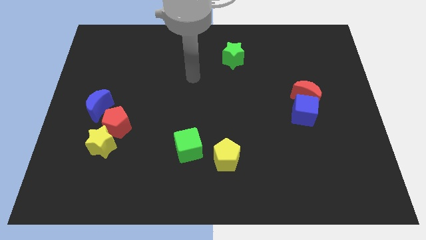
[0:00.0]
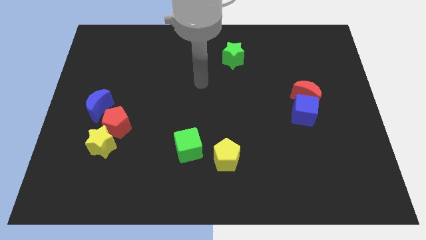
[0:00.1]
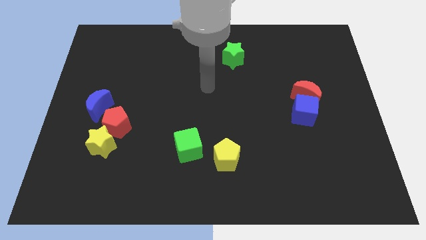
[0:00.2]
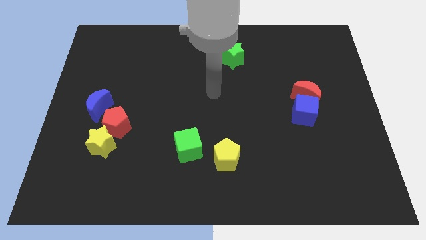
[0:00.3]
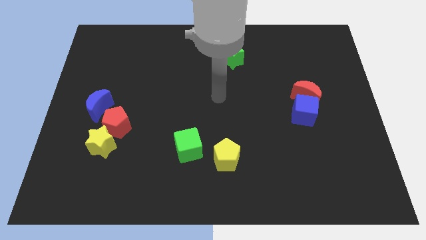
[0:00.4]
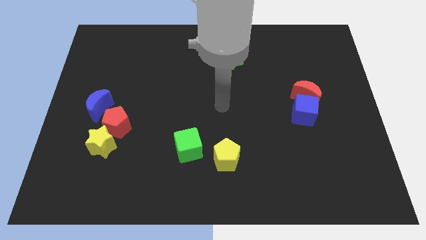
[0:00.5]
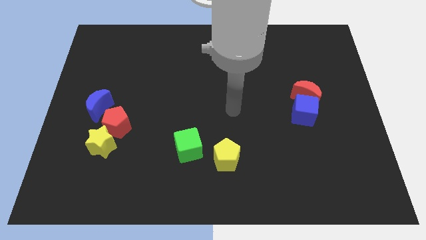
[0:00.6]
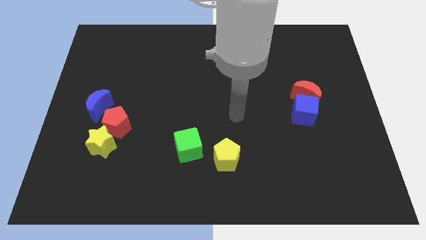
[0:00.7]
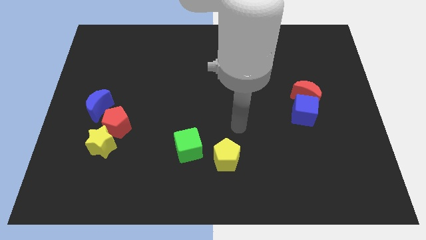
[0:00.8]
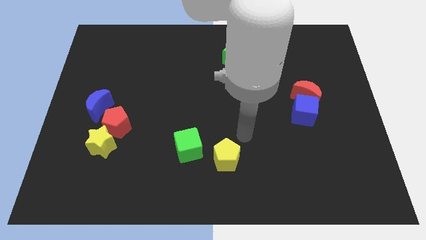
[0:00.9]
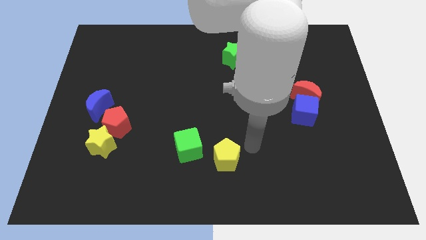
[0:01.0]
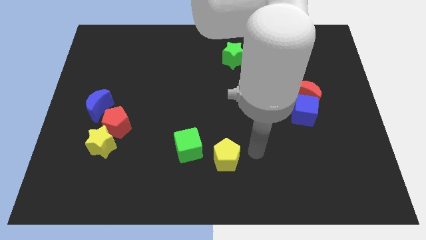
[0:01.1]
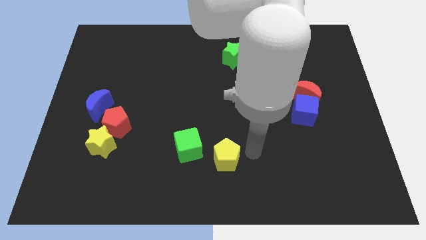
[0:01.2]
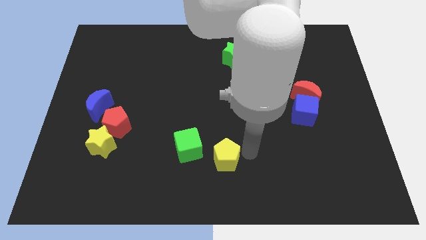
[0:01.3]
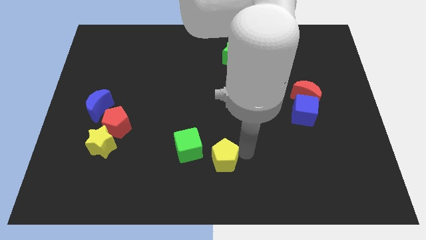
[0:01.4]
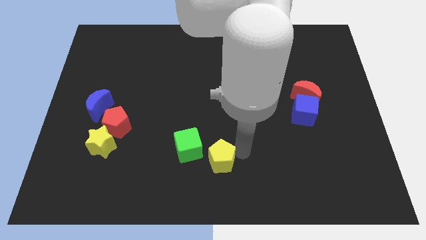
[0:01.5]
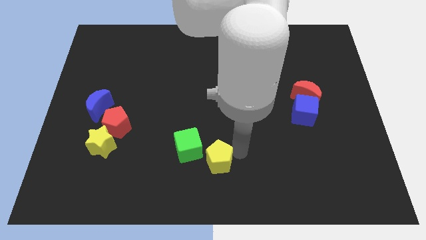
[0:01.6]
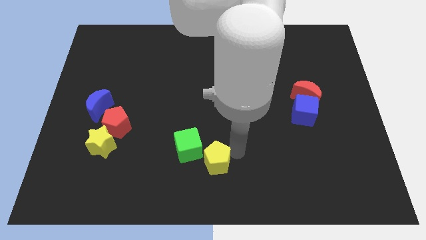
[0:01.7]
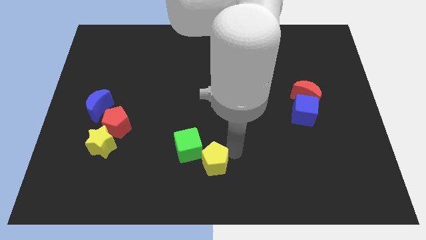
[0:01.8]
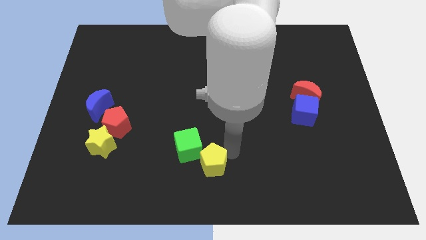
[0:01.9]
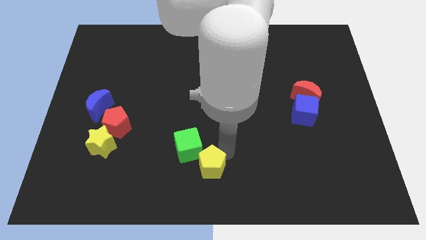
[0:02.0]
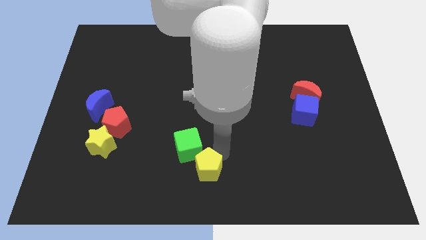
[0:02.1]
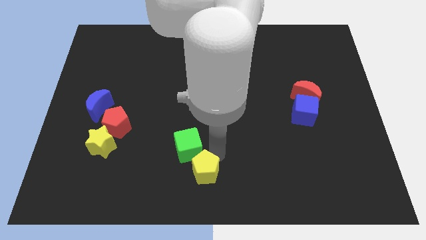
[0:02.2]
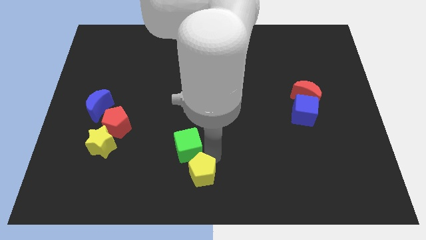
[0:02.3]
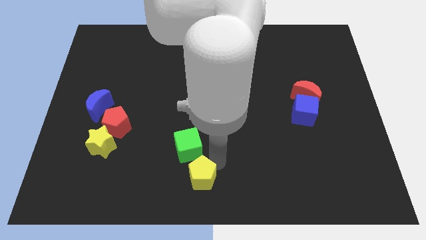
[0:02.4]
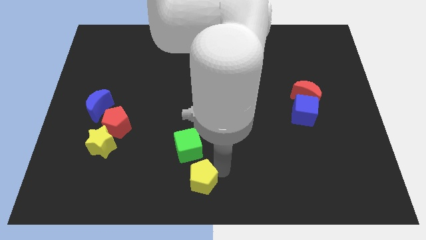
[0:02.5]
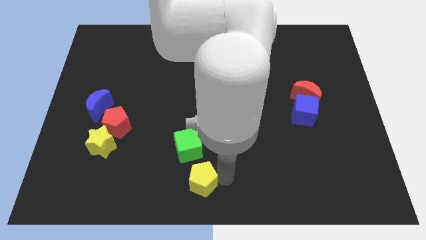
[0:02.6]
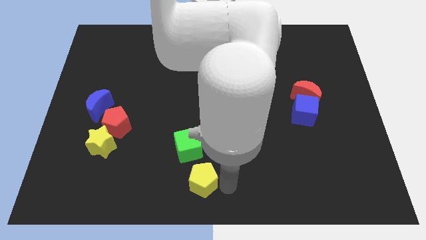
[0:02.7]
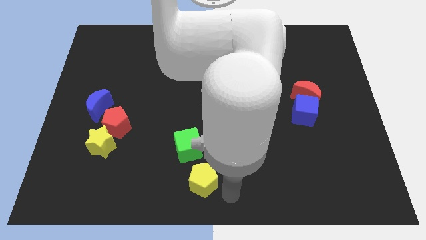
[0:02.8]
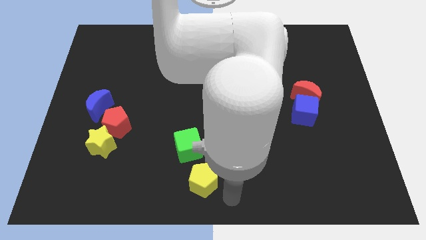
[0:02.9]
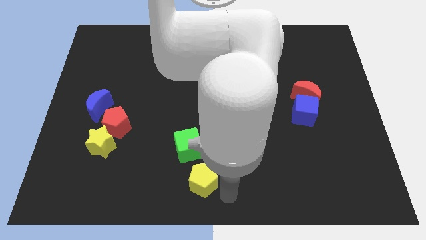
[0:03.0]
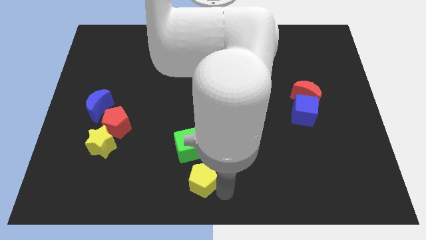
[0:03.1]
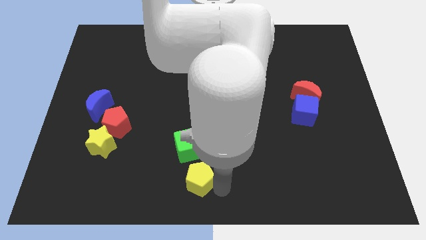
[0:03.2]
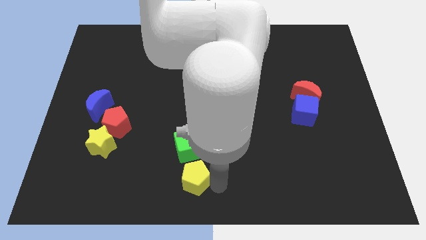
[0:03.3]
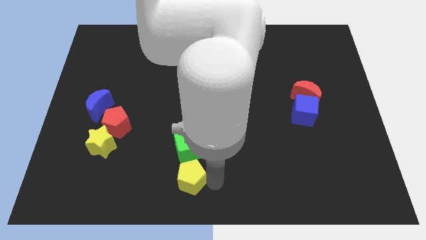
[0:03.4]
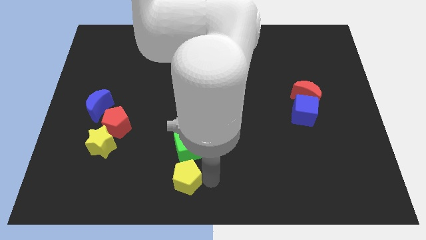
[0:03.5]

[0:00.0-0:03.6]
slightly slide the yellow pentagon left

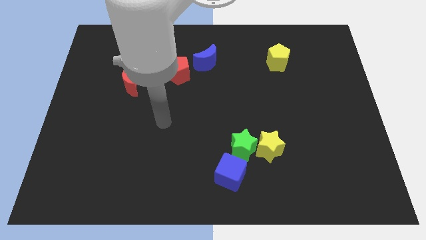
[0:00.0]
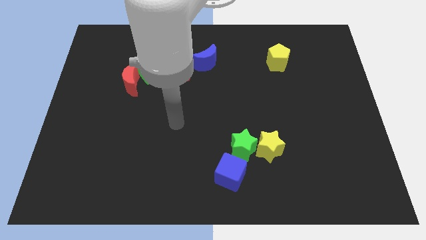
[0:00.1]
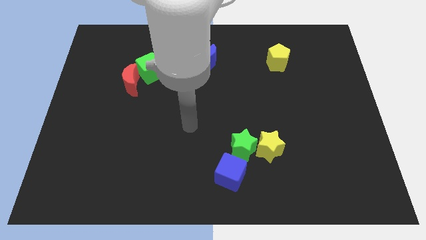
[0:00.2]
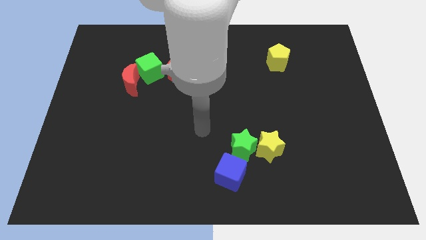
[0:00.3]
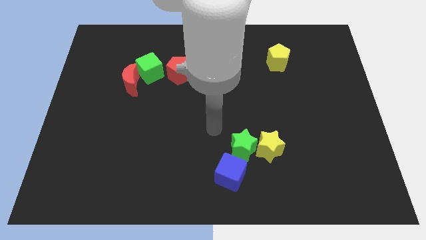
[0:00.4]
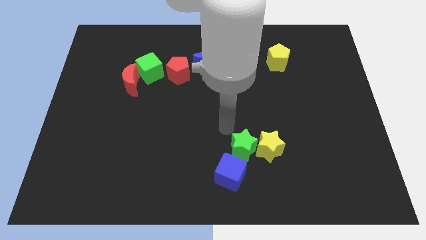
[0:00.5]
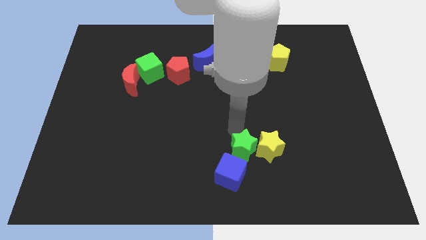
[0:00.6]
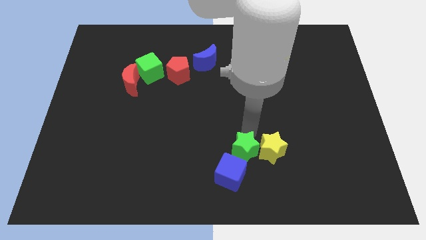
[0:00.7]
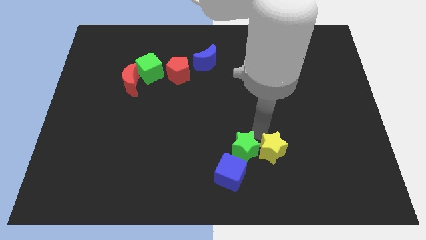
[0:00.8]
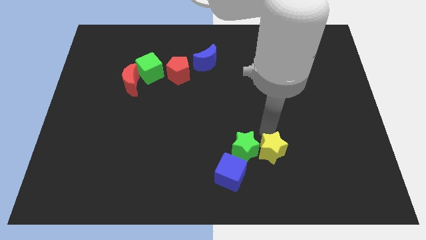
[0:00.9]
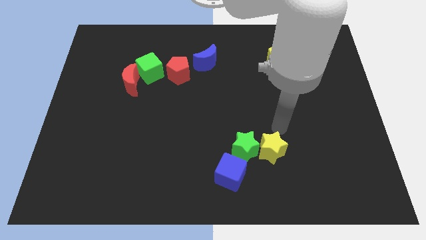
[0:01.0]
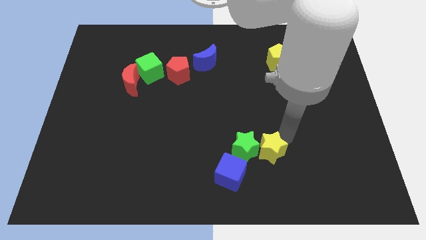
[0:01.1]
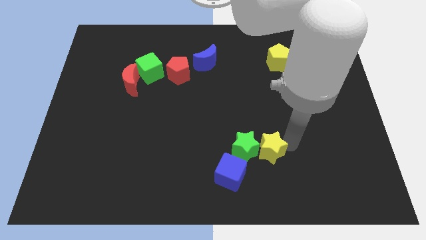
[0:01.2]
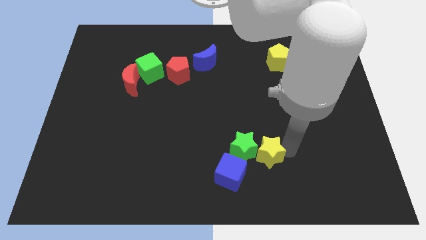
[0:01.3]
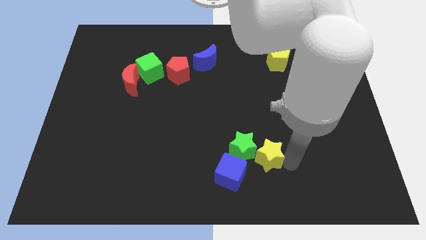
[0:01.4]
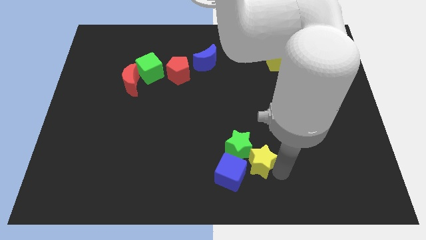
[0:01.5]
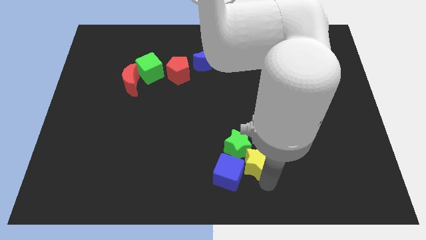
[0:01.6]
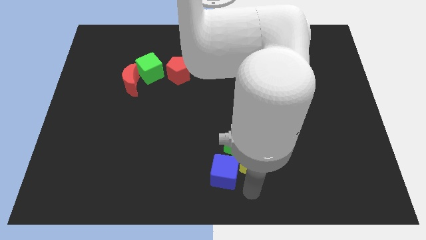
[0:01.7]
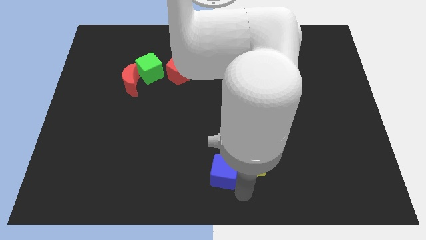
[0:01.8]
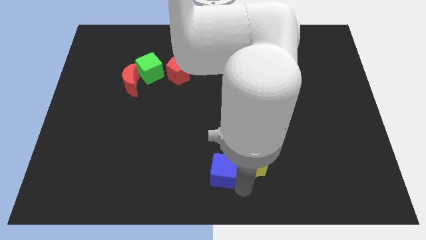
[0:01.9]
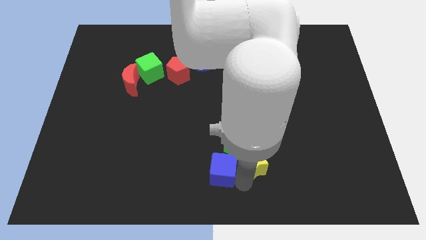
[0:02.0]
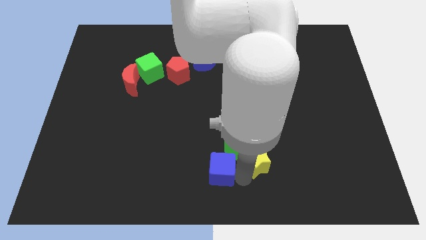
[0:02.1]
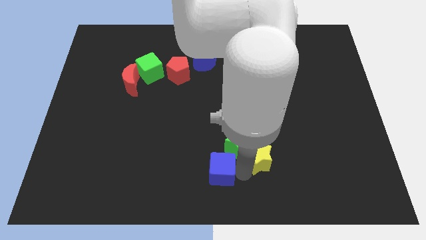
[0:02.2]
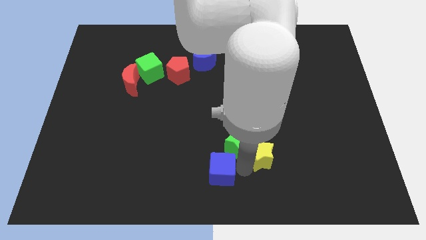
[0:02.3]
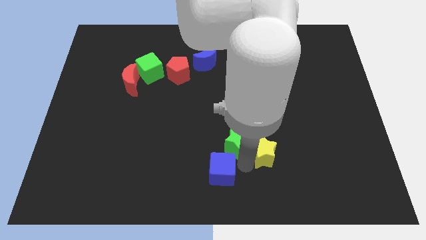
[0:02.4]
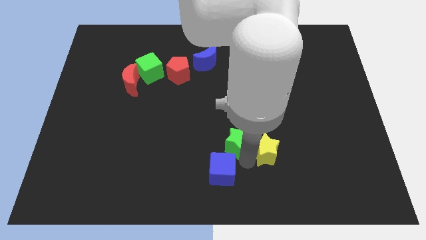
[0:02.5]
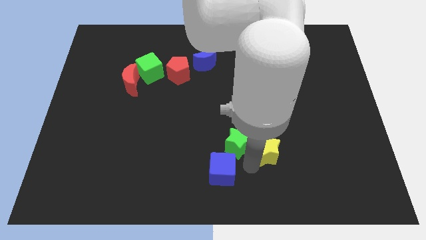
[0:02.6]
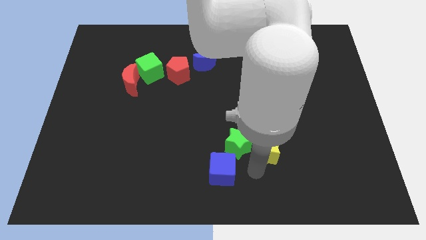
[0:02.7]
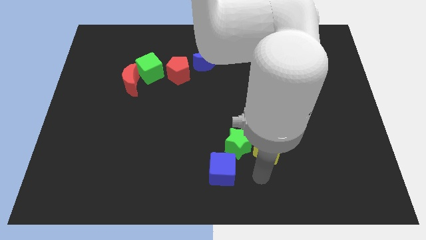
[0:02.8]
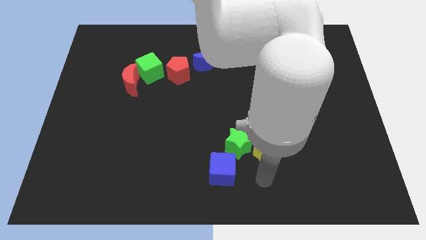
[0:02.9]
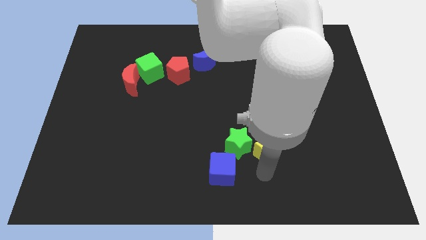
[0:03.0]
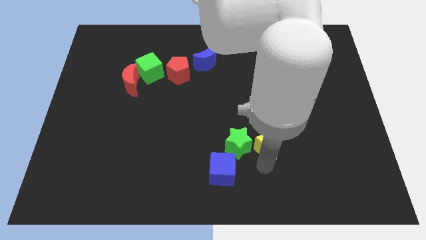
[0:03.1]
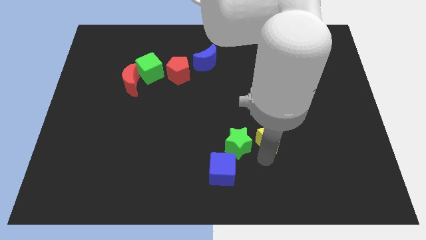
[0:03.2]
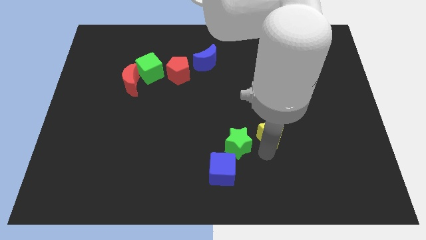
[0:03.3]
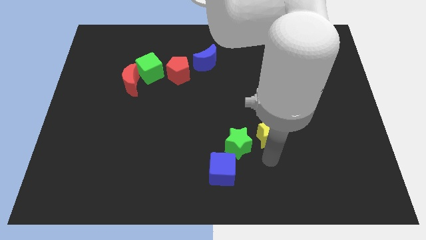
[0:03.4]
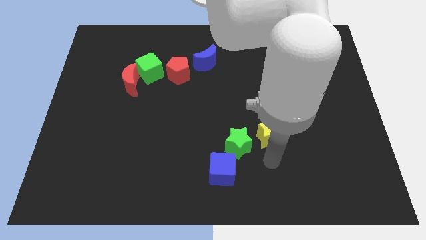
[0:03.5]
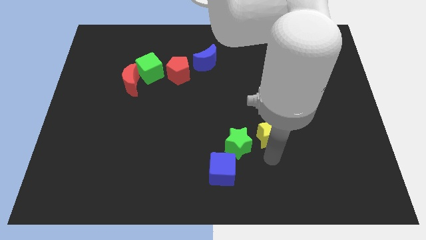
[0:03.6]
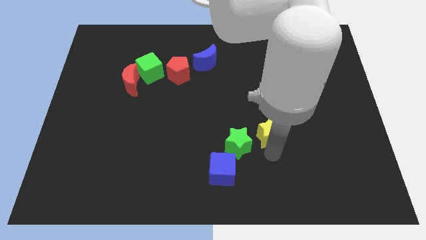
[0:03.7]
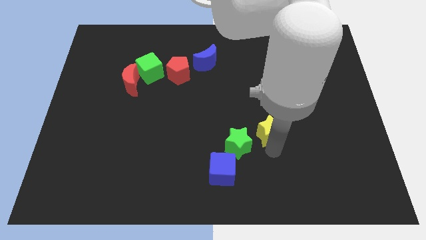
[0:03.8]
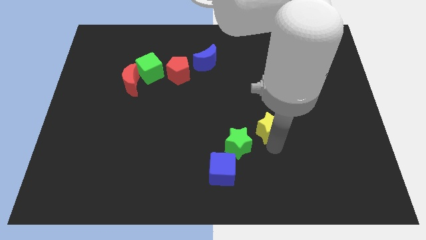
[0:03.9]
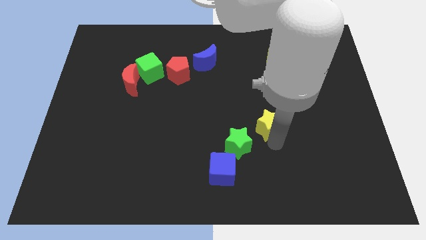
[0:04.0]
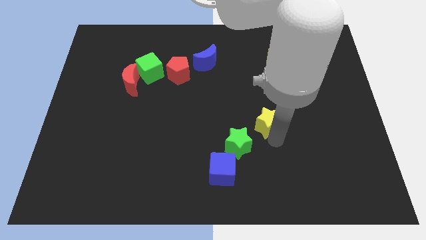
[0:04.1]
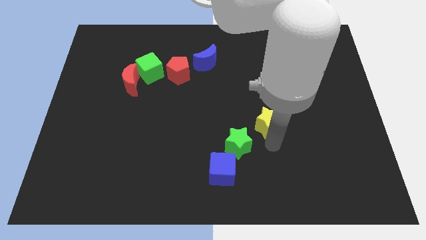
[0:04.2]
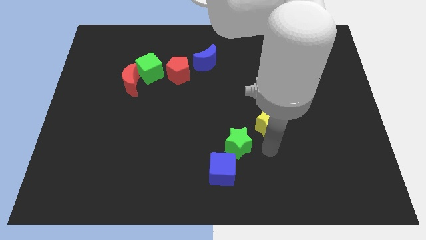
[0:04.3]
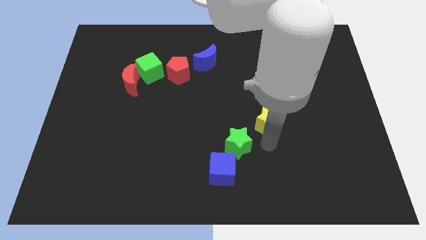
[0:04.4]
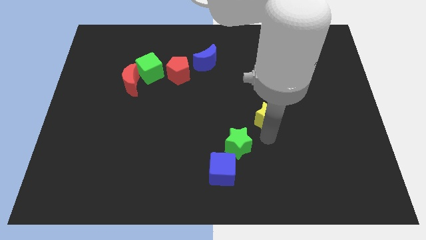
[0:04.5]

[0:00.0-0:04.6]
slightly slide the yellow star upwards
